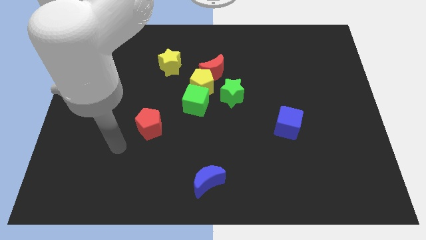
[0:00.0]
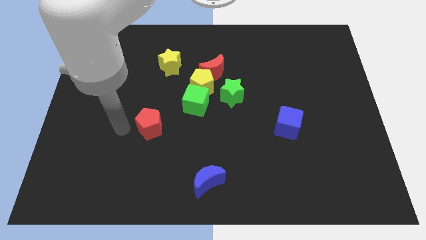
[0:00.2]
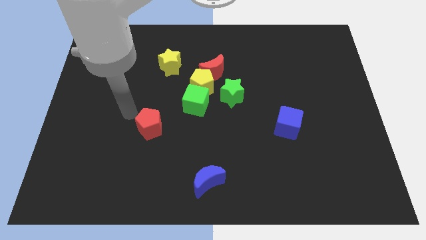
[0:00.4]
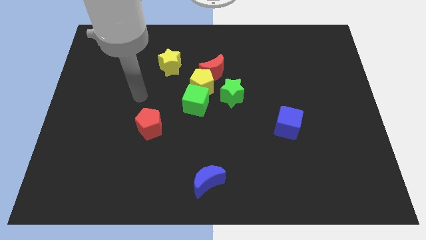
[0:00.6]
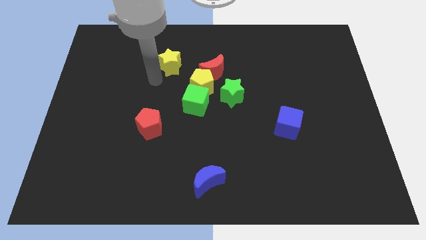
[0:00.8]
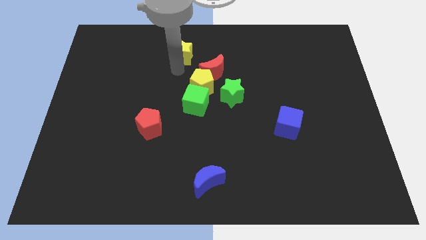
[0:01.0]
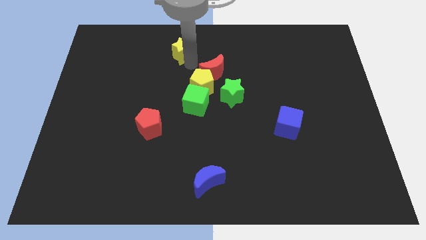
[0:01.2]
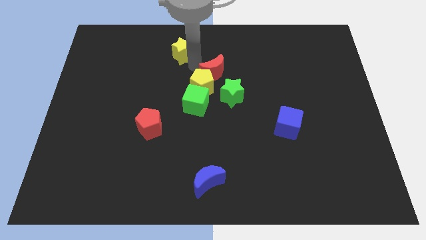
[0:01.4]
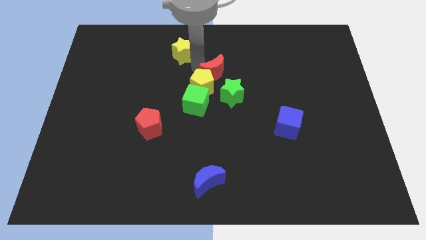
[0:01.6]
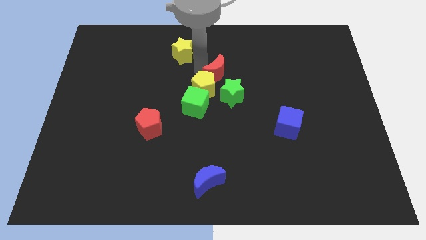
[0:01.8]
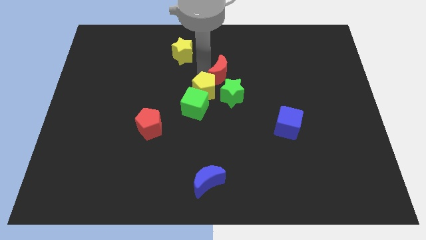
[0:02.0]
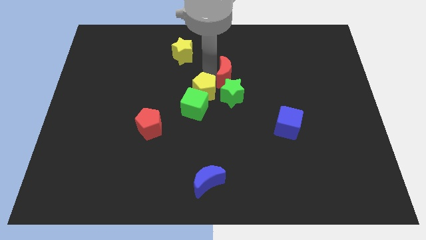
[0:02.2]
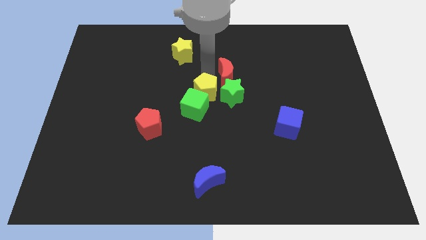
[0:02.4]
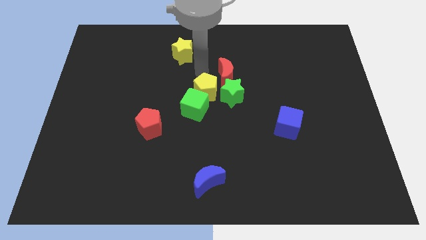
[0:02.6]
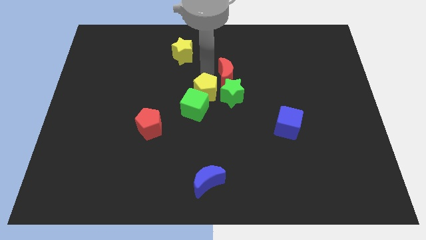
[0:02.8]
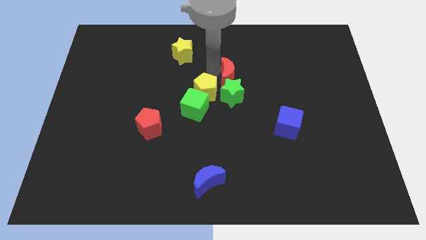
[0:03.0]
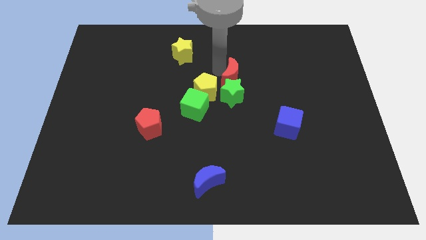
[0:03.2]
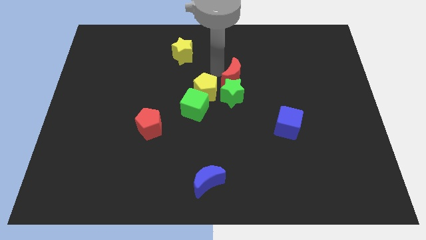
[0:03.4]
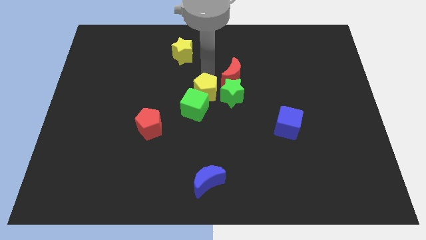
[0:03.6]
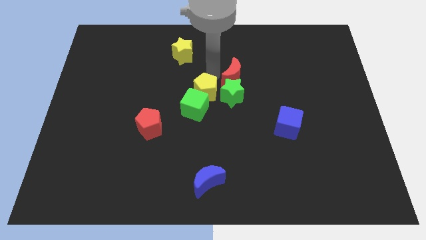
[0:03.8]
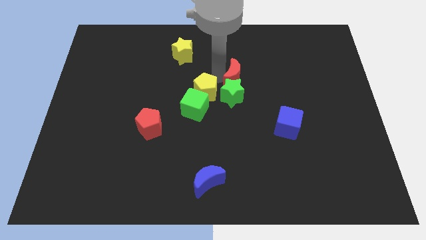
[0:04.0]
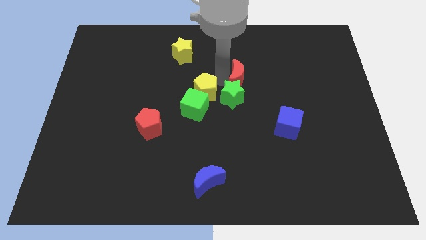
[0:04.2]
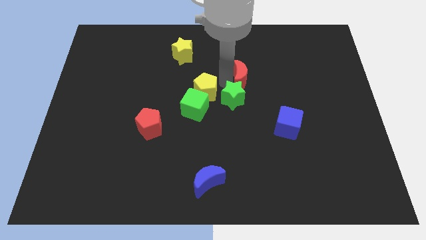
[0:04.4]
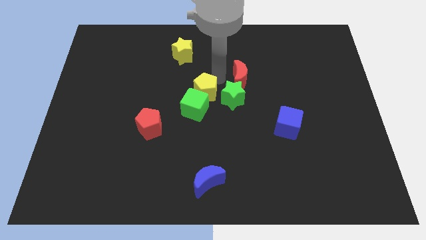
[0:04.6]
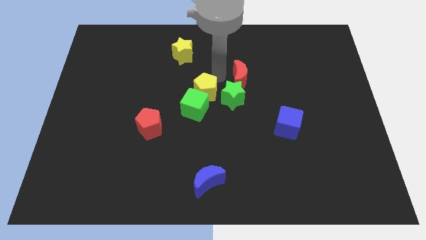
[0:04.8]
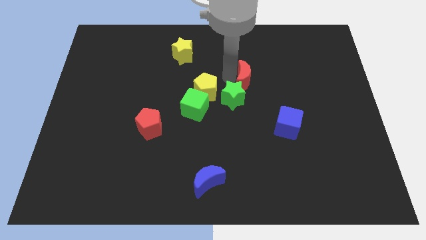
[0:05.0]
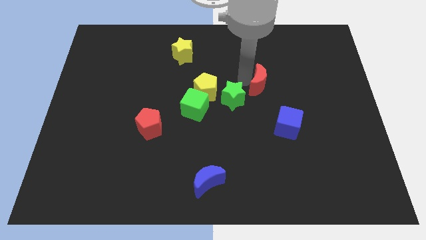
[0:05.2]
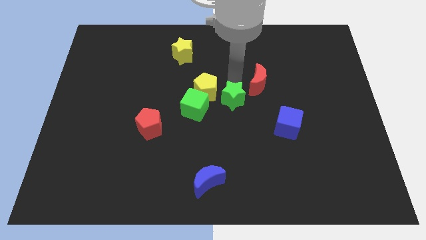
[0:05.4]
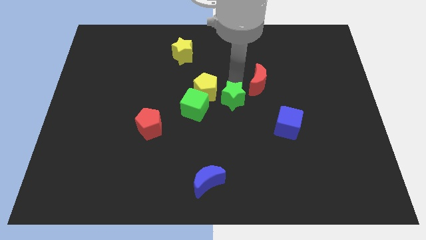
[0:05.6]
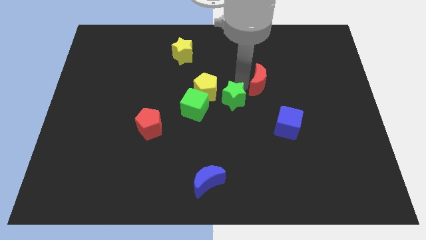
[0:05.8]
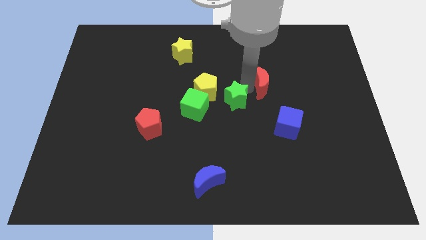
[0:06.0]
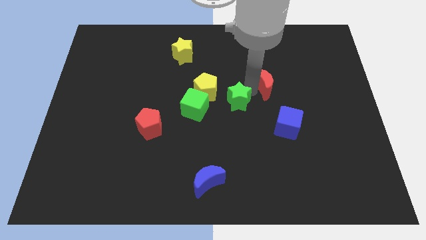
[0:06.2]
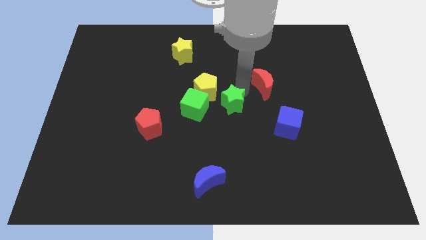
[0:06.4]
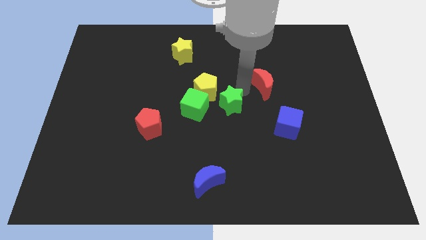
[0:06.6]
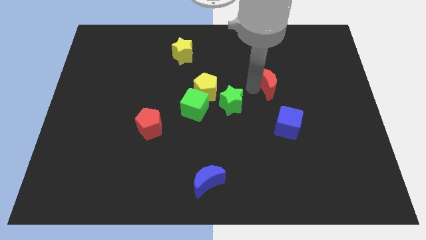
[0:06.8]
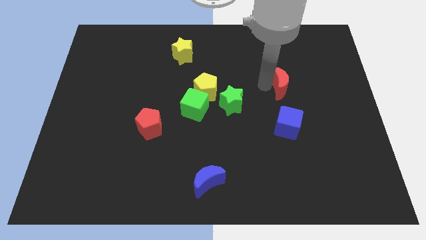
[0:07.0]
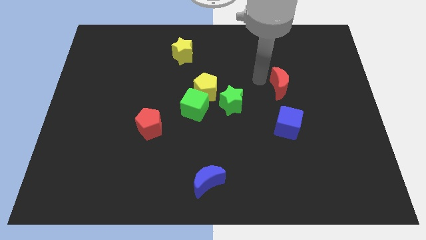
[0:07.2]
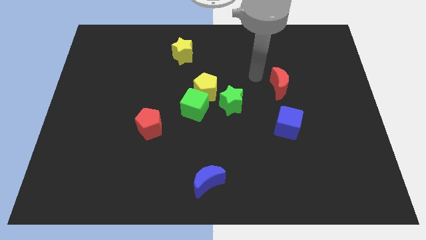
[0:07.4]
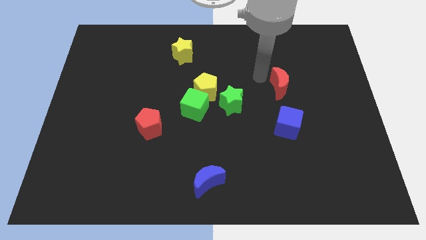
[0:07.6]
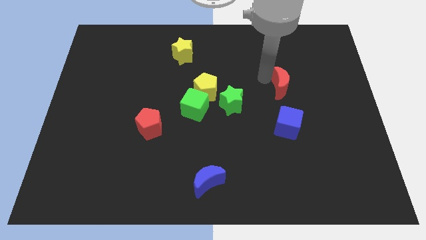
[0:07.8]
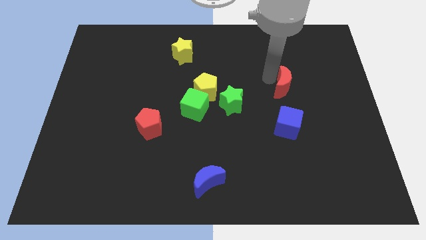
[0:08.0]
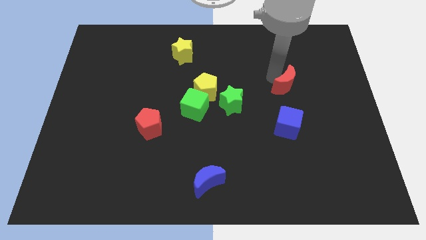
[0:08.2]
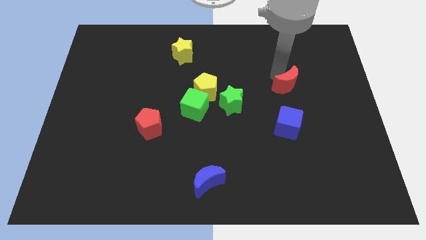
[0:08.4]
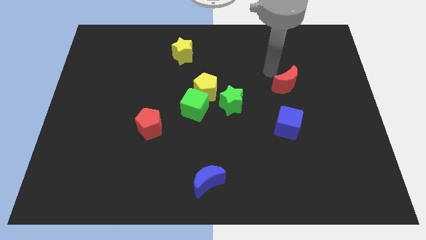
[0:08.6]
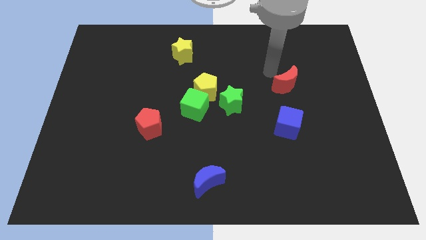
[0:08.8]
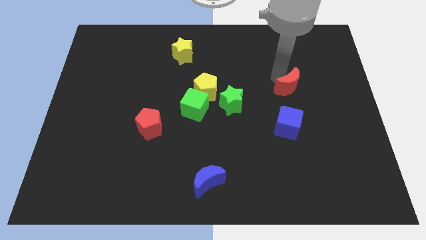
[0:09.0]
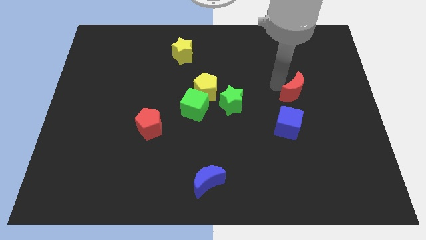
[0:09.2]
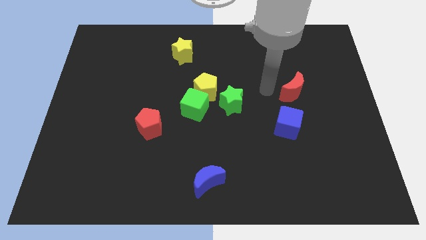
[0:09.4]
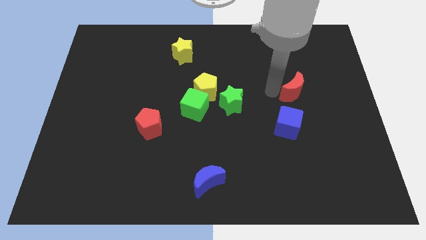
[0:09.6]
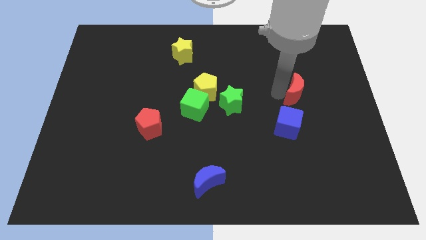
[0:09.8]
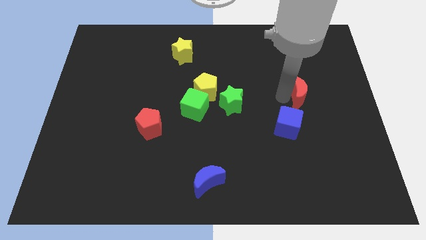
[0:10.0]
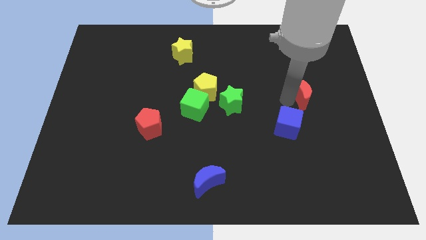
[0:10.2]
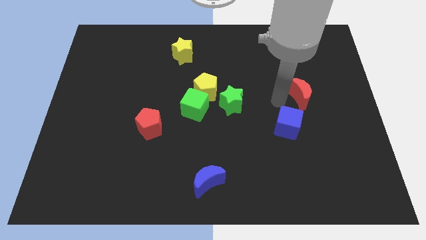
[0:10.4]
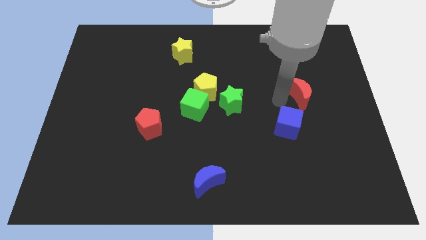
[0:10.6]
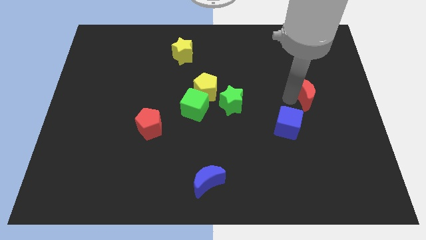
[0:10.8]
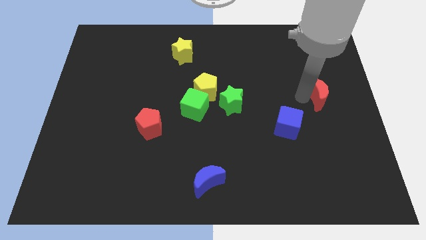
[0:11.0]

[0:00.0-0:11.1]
push the red moon to the center right
